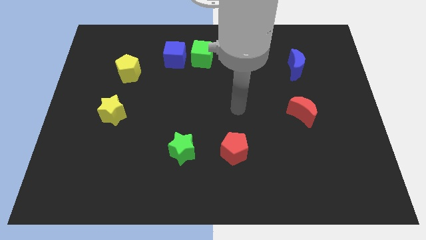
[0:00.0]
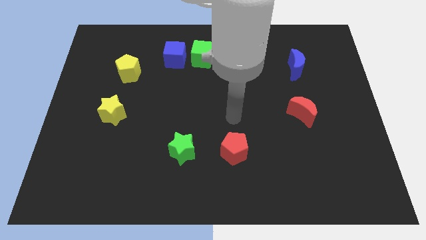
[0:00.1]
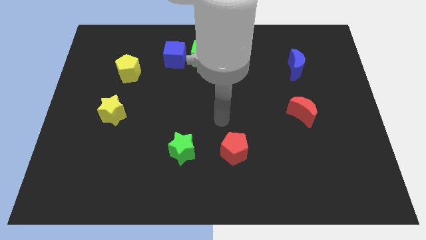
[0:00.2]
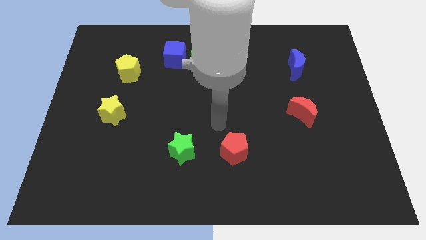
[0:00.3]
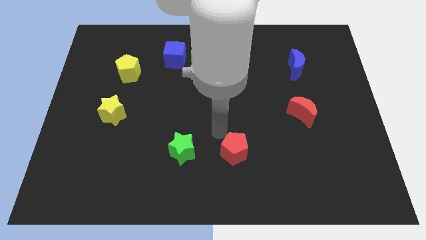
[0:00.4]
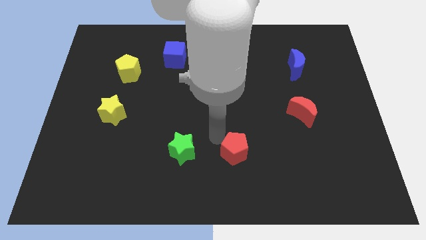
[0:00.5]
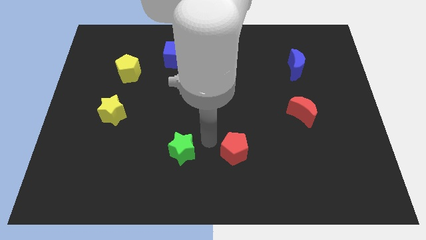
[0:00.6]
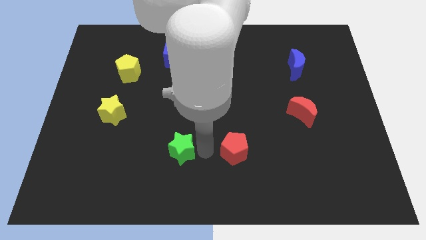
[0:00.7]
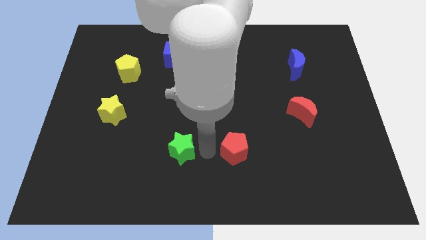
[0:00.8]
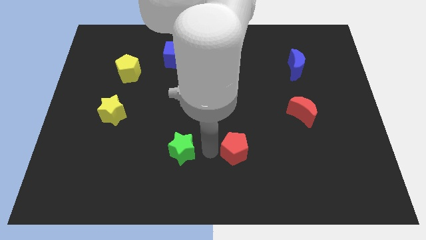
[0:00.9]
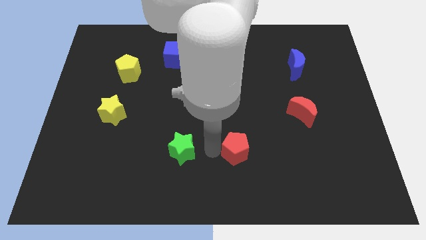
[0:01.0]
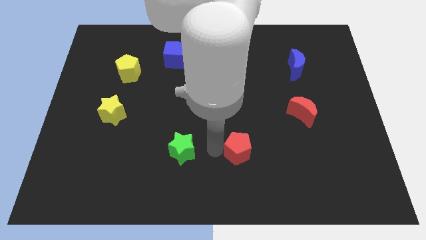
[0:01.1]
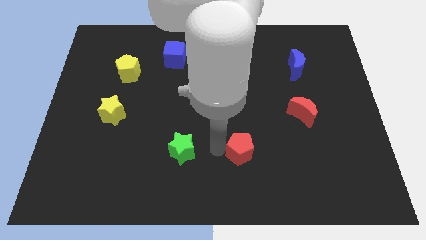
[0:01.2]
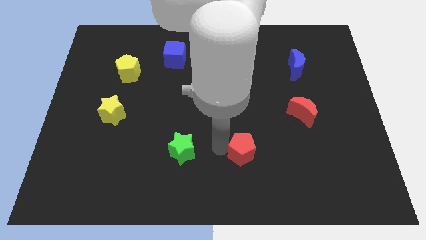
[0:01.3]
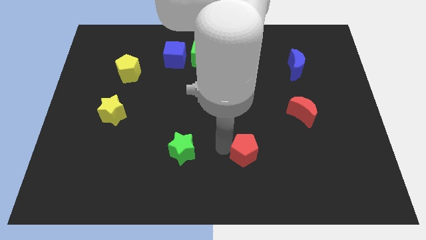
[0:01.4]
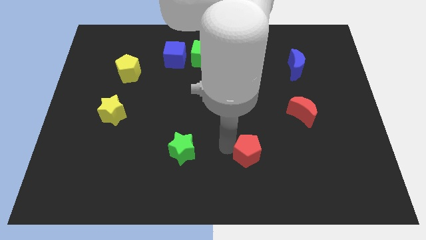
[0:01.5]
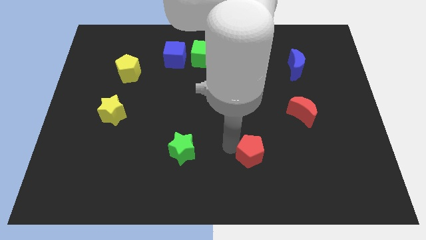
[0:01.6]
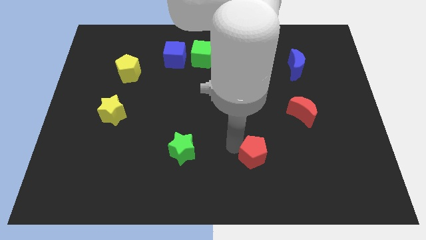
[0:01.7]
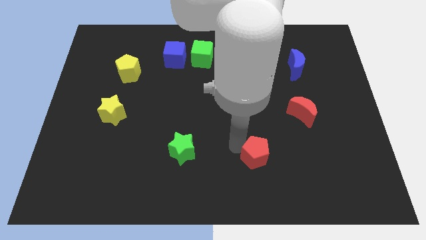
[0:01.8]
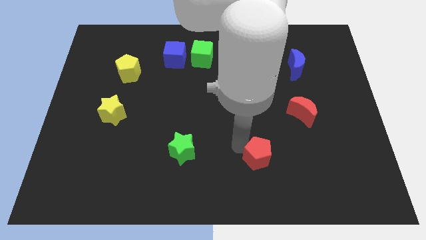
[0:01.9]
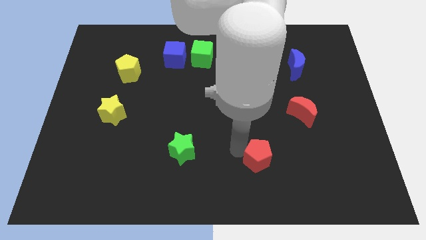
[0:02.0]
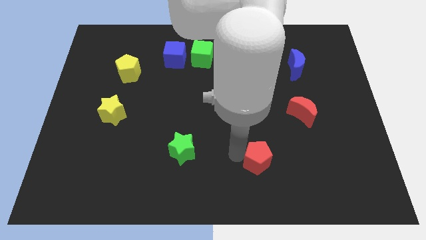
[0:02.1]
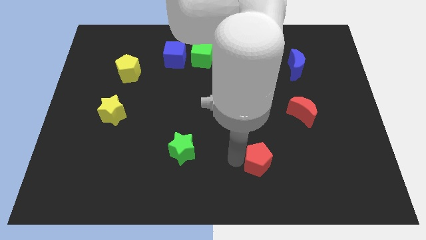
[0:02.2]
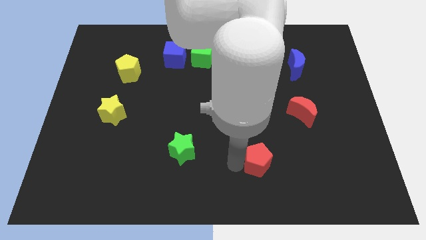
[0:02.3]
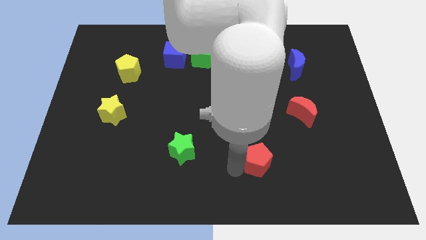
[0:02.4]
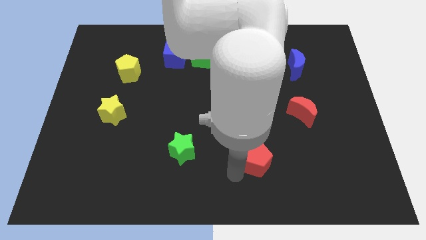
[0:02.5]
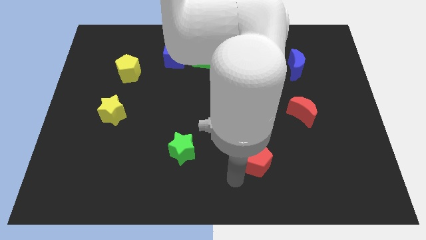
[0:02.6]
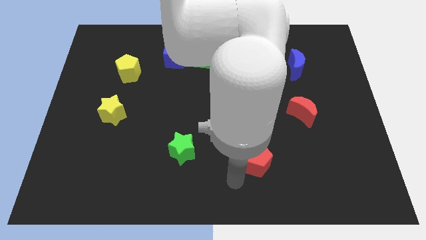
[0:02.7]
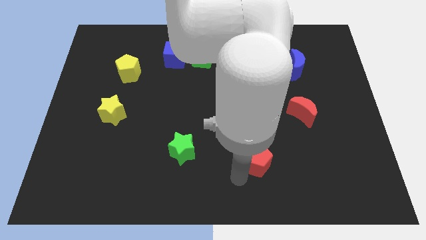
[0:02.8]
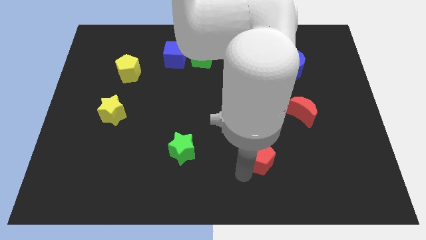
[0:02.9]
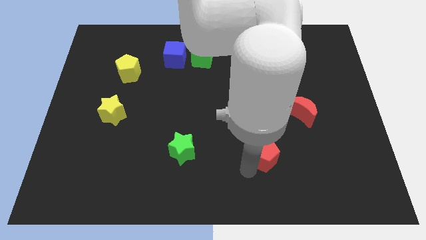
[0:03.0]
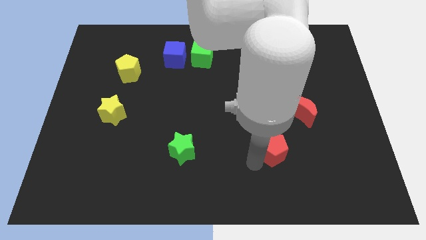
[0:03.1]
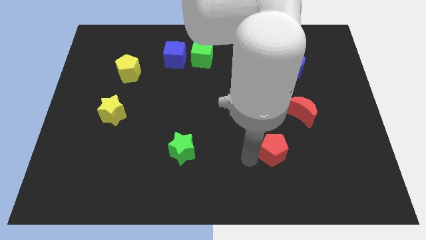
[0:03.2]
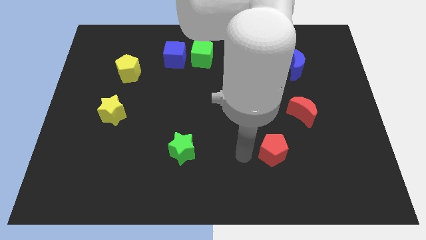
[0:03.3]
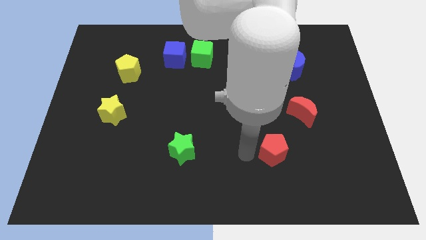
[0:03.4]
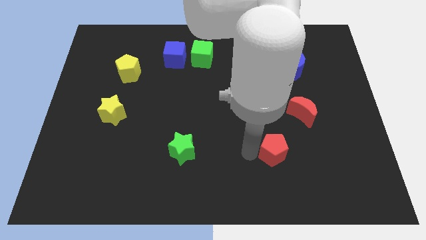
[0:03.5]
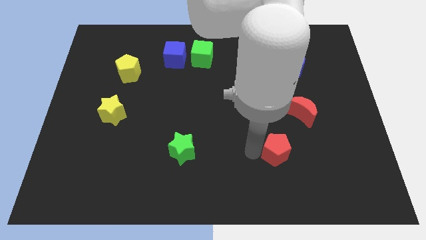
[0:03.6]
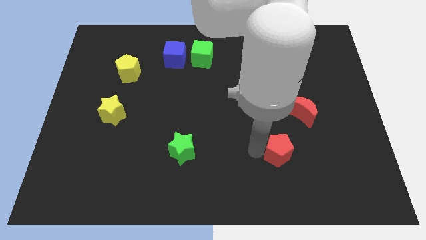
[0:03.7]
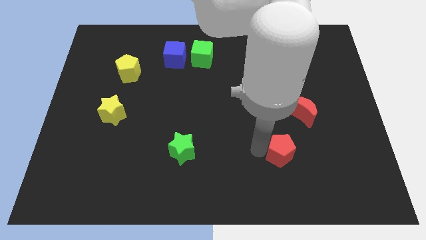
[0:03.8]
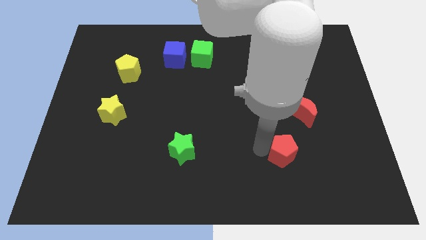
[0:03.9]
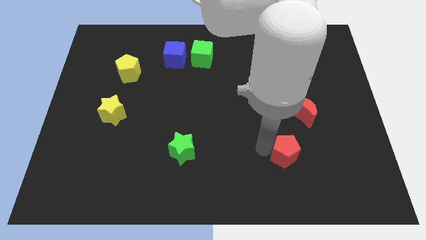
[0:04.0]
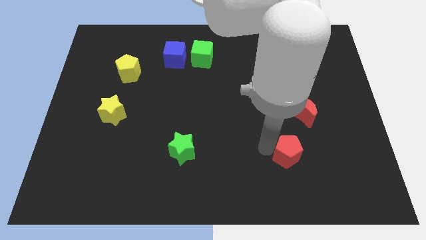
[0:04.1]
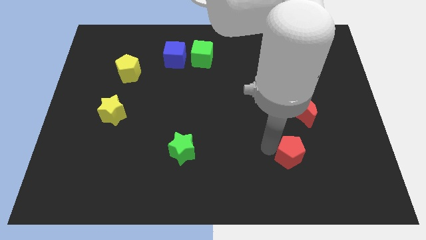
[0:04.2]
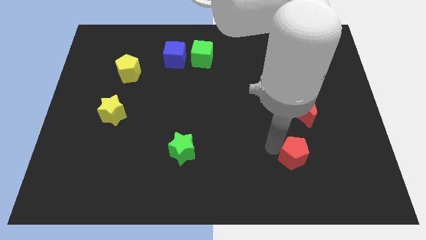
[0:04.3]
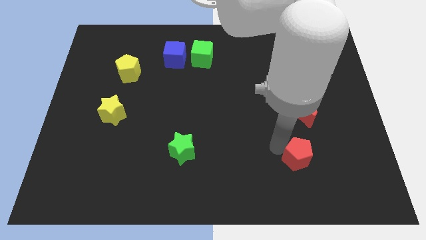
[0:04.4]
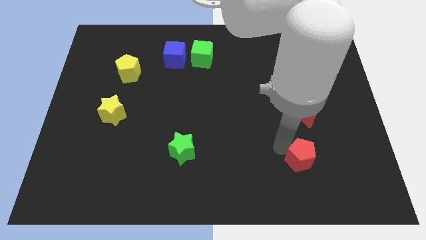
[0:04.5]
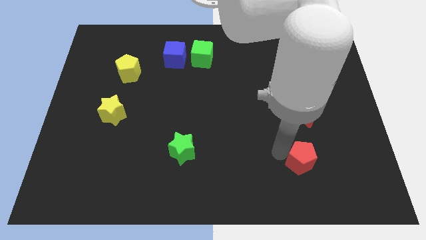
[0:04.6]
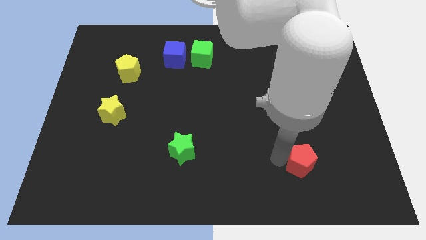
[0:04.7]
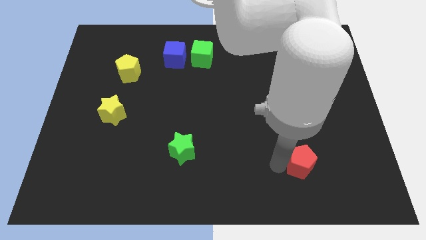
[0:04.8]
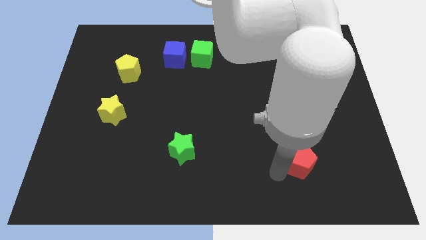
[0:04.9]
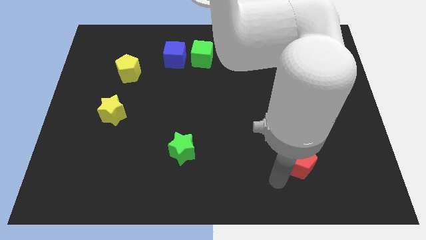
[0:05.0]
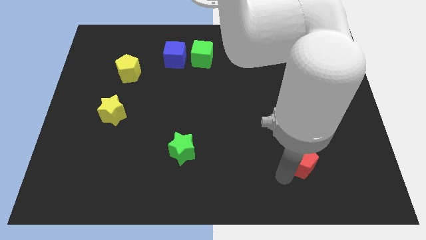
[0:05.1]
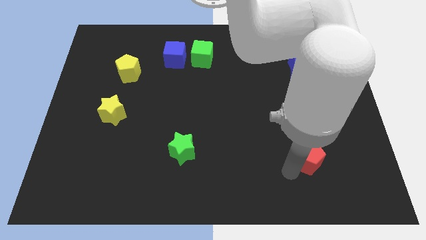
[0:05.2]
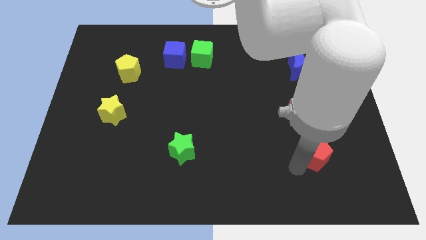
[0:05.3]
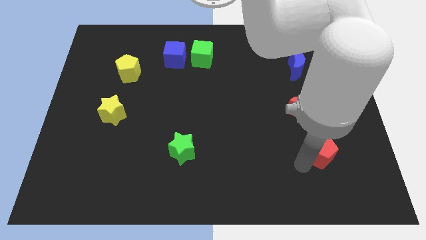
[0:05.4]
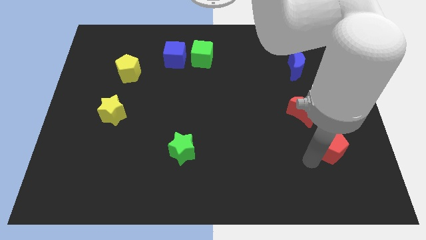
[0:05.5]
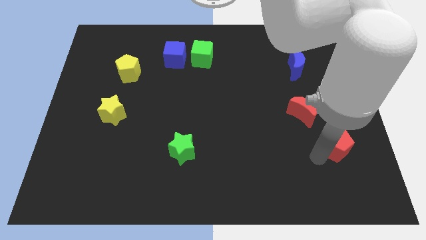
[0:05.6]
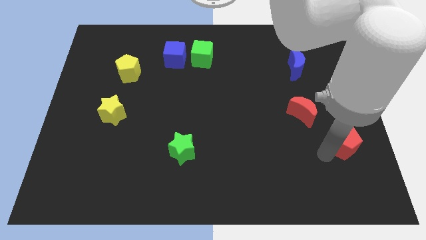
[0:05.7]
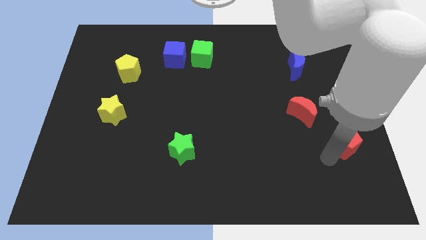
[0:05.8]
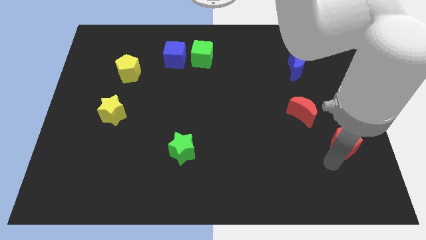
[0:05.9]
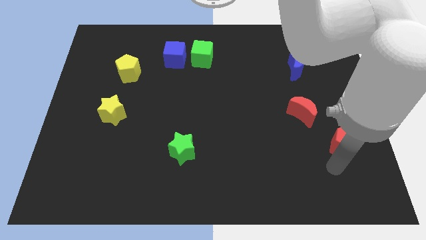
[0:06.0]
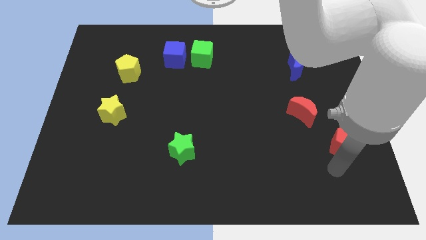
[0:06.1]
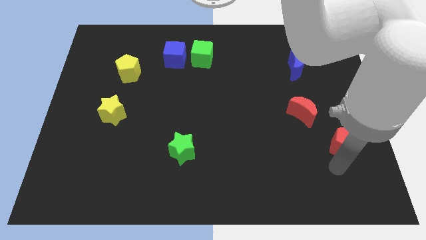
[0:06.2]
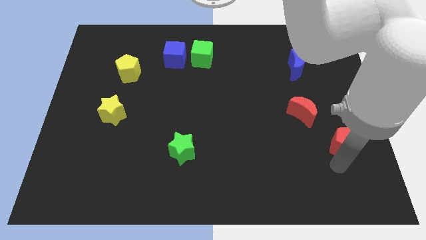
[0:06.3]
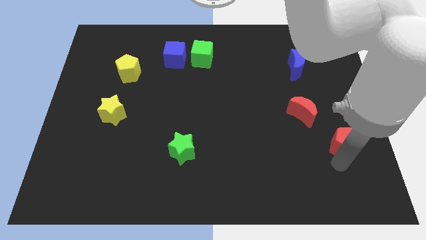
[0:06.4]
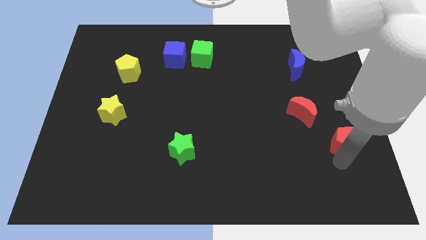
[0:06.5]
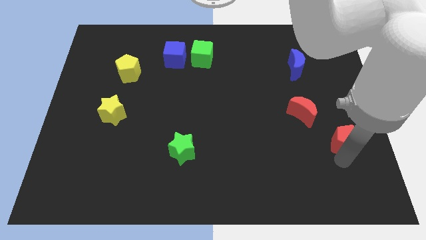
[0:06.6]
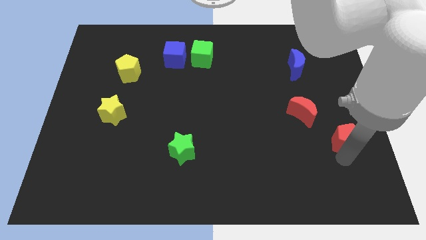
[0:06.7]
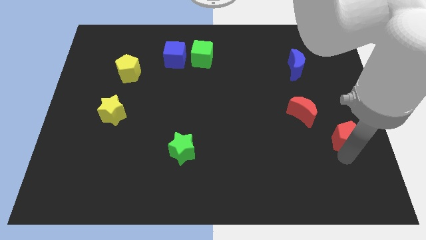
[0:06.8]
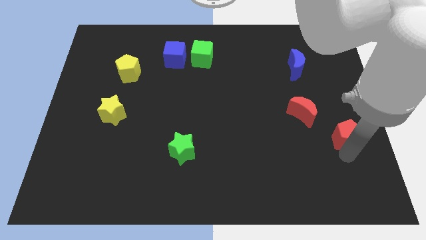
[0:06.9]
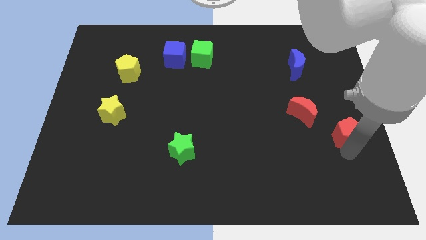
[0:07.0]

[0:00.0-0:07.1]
move the red pentagon to the right side of the board
